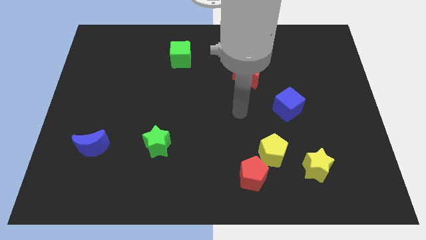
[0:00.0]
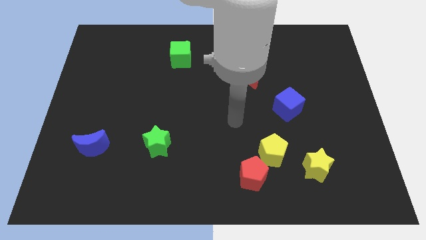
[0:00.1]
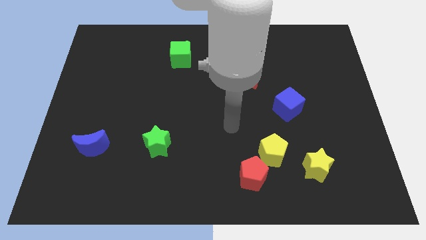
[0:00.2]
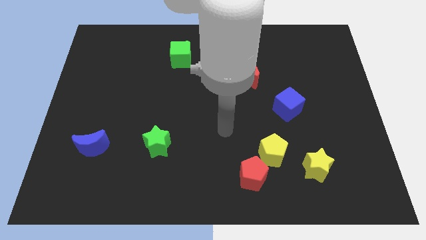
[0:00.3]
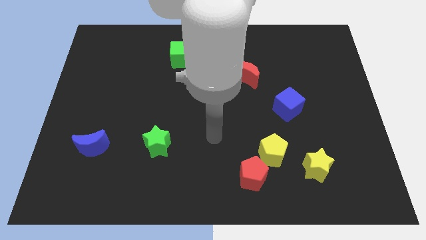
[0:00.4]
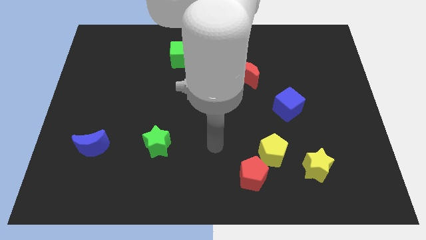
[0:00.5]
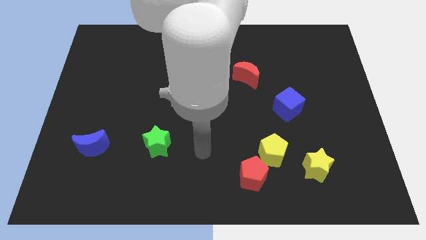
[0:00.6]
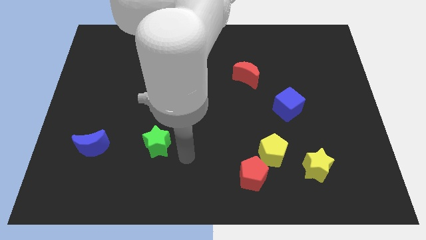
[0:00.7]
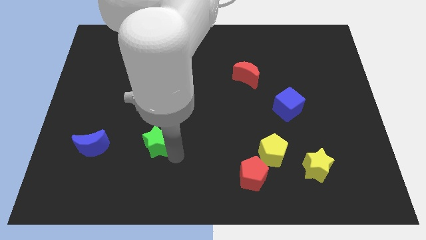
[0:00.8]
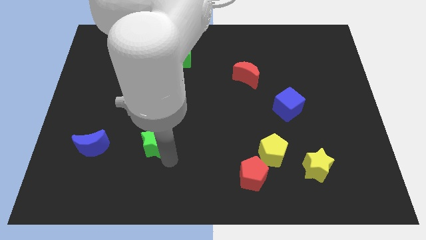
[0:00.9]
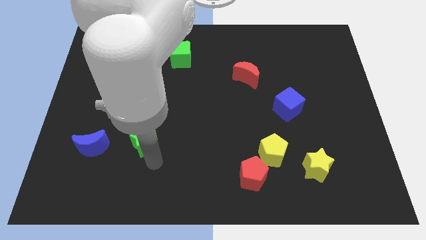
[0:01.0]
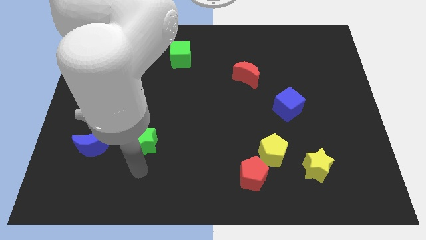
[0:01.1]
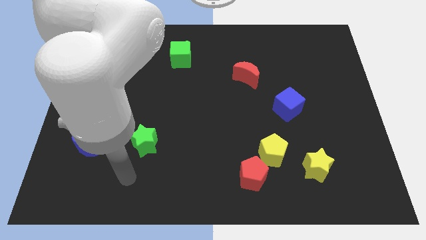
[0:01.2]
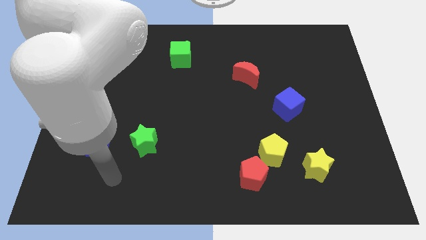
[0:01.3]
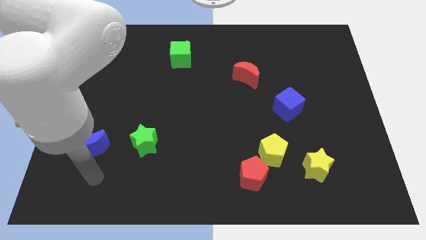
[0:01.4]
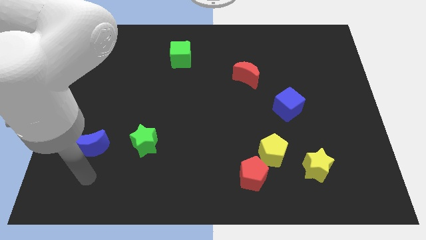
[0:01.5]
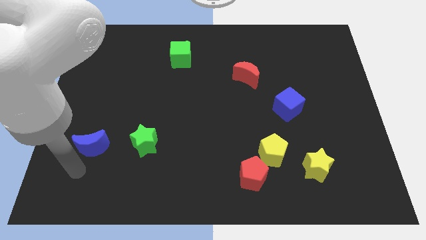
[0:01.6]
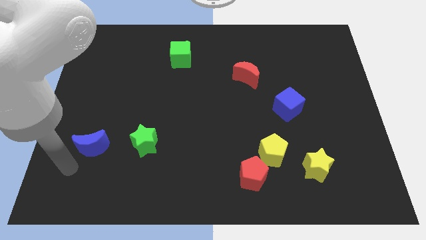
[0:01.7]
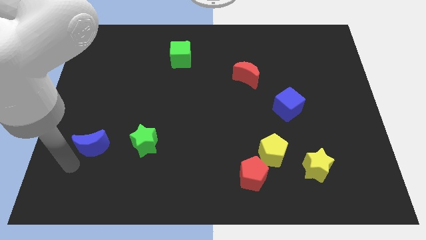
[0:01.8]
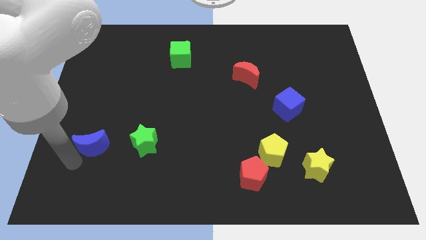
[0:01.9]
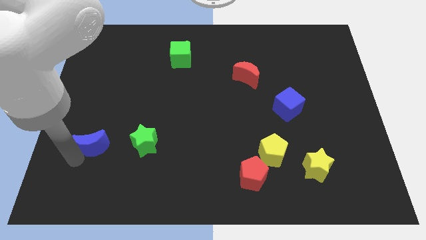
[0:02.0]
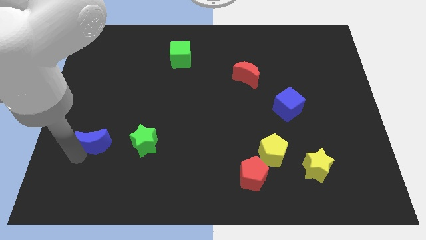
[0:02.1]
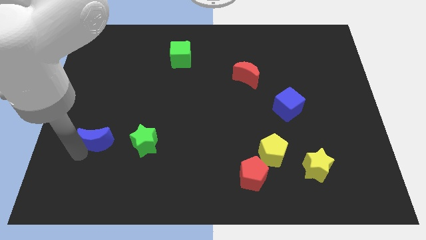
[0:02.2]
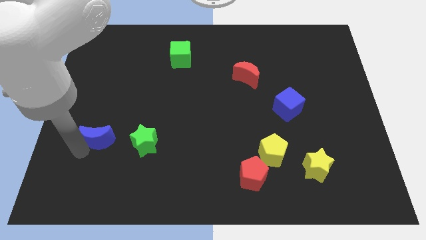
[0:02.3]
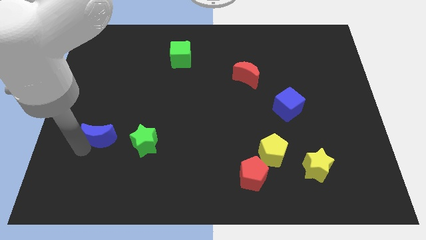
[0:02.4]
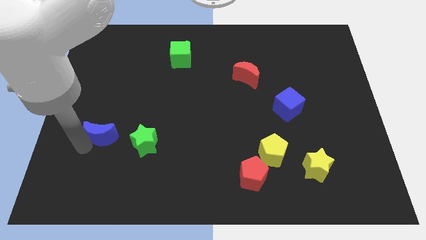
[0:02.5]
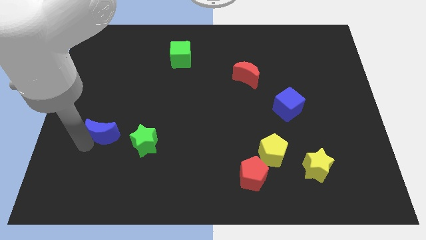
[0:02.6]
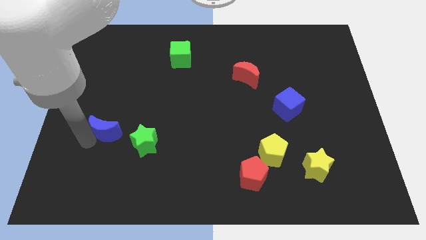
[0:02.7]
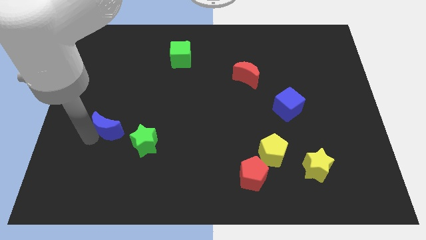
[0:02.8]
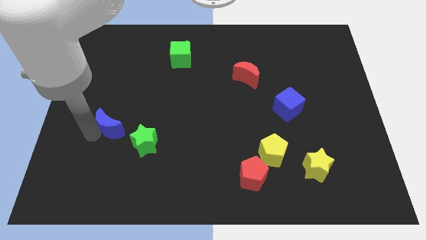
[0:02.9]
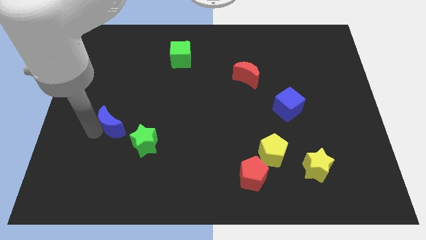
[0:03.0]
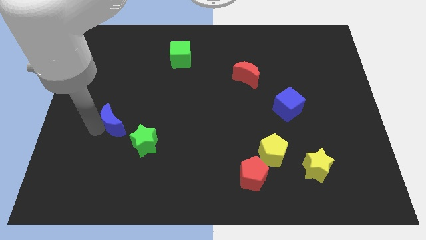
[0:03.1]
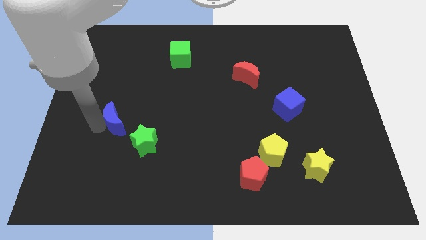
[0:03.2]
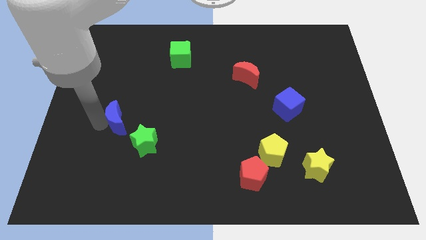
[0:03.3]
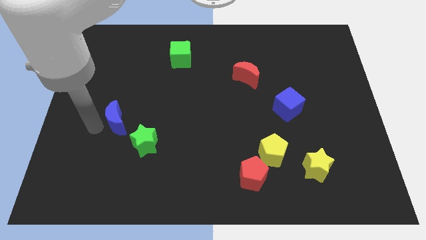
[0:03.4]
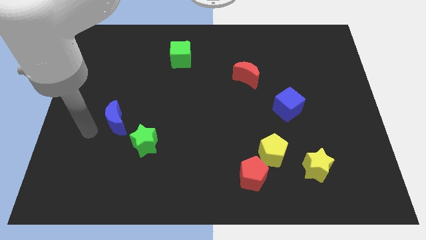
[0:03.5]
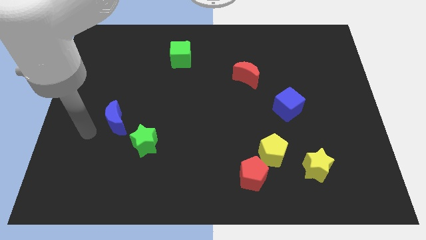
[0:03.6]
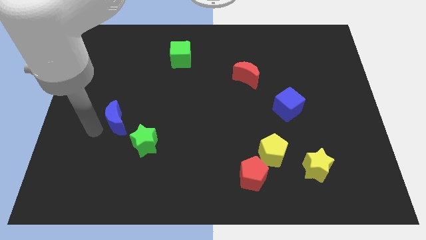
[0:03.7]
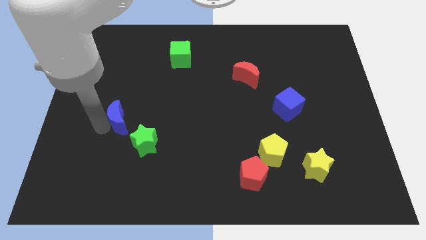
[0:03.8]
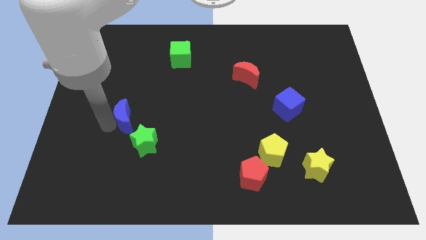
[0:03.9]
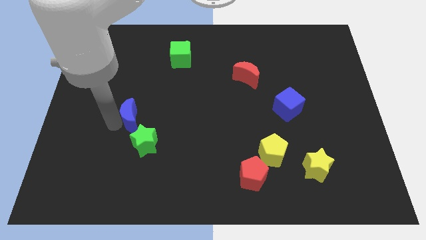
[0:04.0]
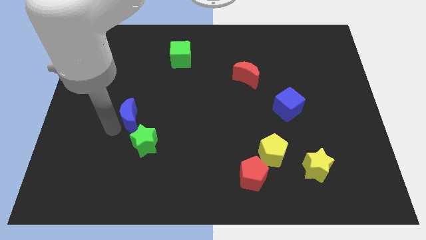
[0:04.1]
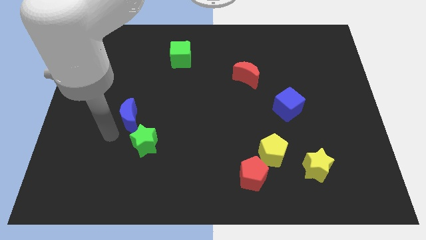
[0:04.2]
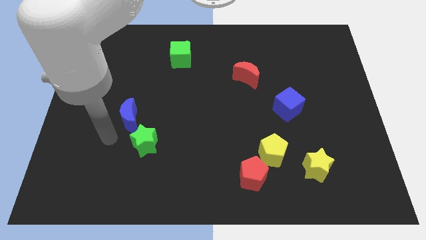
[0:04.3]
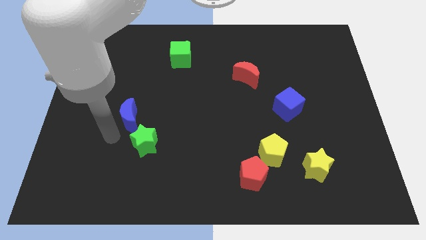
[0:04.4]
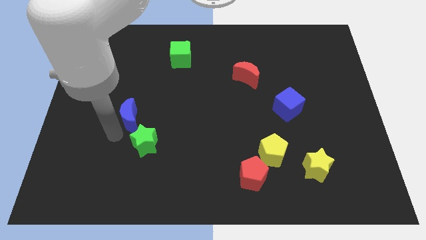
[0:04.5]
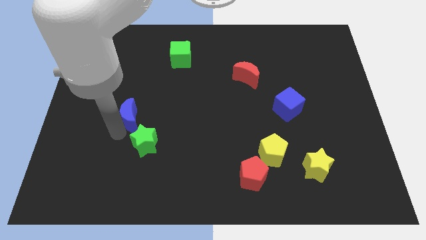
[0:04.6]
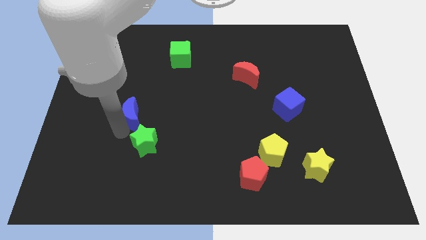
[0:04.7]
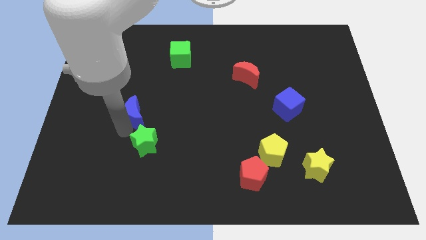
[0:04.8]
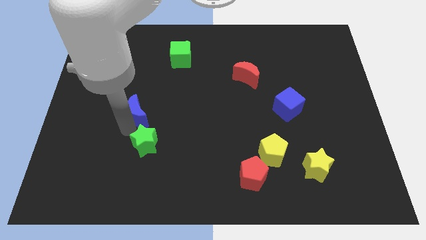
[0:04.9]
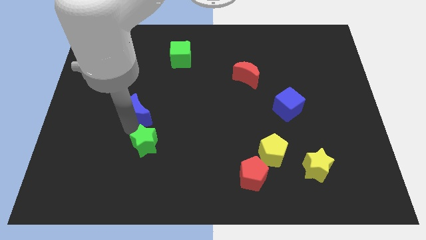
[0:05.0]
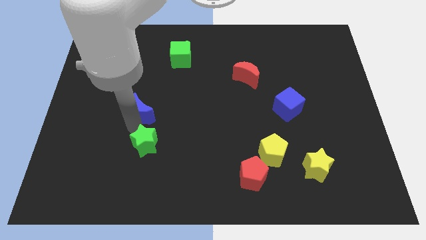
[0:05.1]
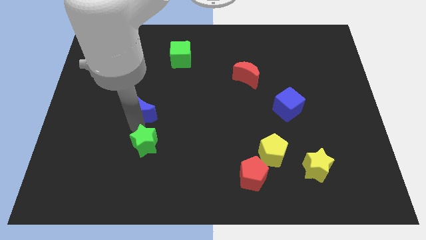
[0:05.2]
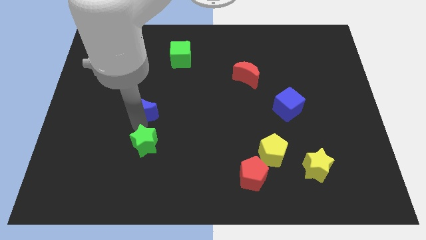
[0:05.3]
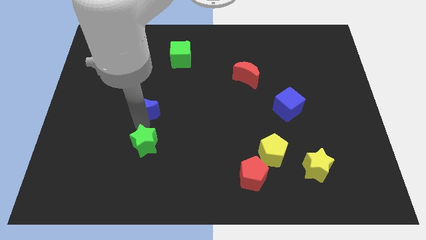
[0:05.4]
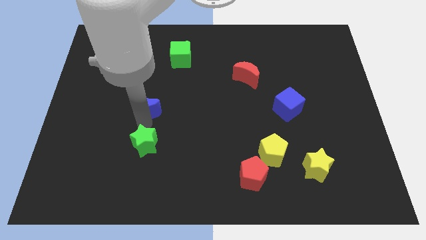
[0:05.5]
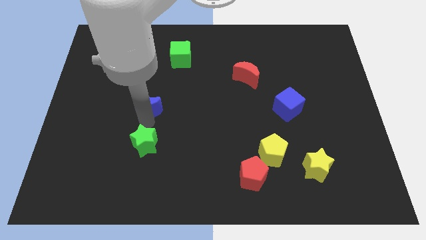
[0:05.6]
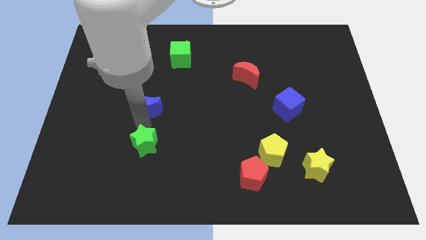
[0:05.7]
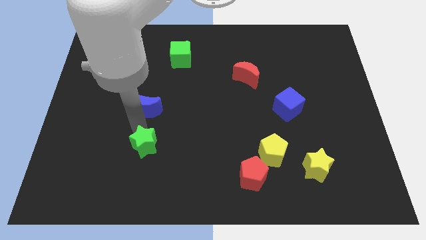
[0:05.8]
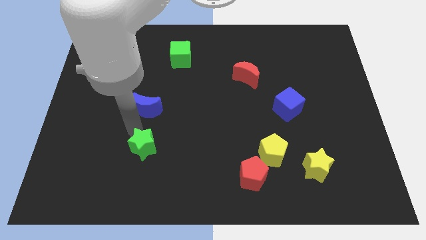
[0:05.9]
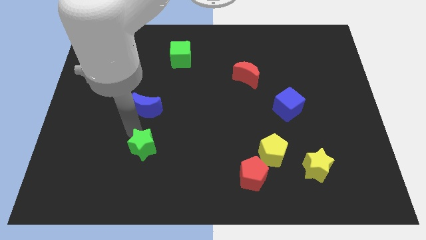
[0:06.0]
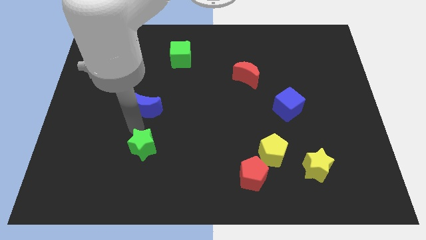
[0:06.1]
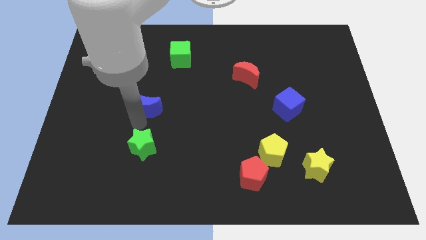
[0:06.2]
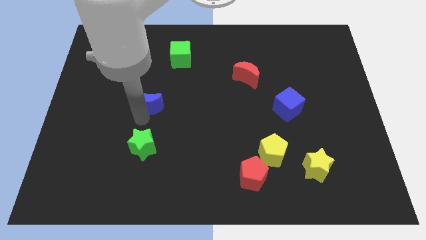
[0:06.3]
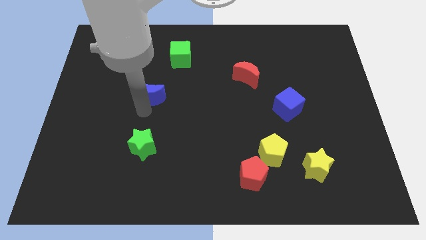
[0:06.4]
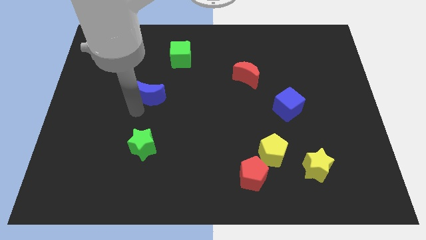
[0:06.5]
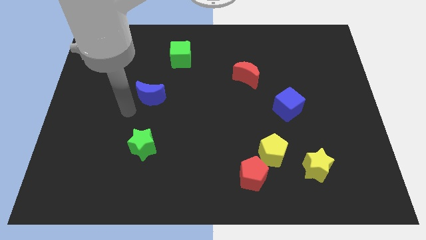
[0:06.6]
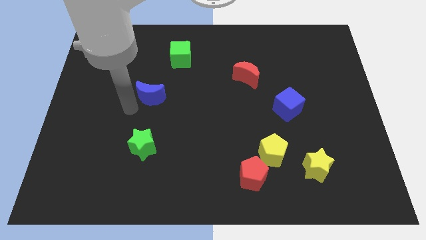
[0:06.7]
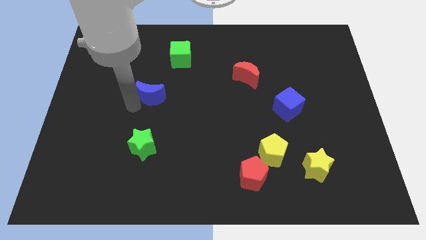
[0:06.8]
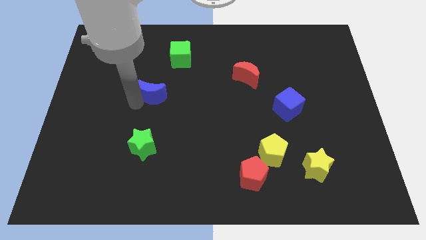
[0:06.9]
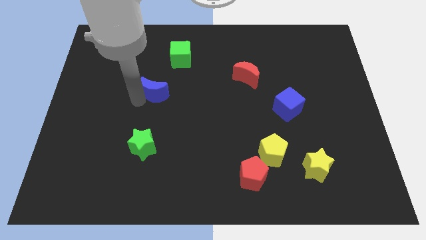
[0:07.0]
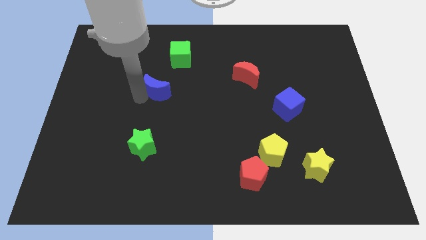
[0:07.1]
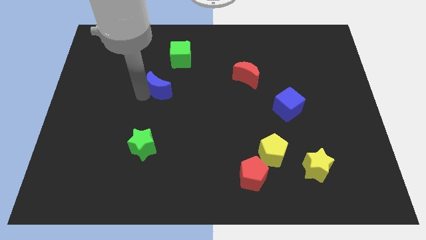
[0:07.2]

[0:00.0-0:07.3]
slide the blue moon upwards and to the right

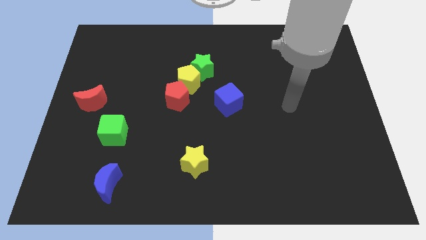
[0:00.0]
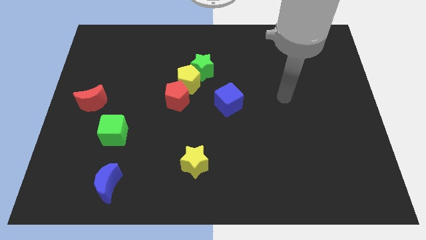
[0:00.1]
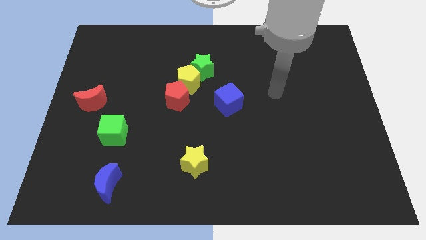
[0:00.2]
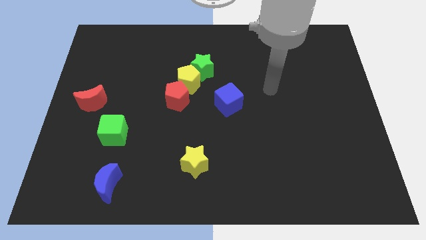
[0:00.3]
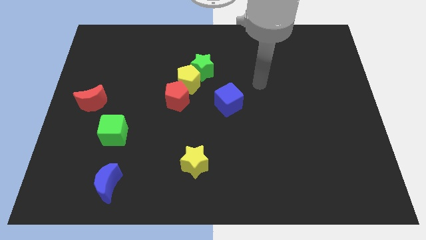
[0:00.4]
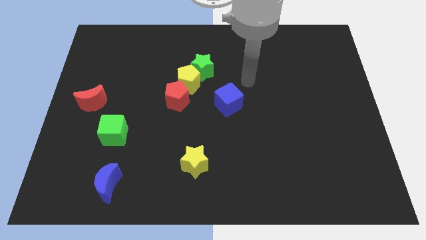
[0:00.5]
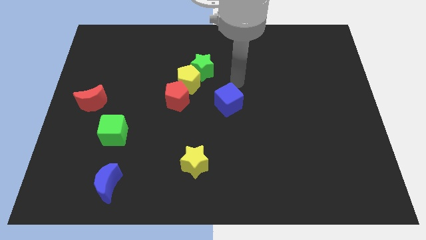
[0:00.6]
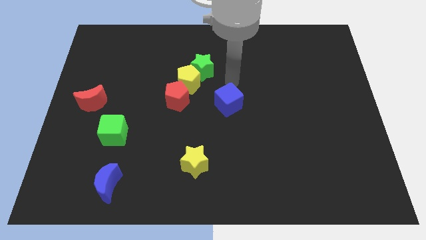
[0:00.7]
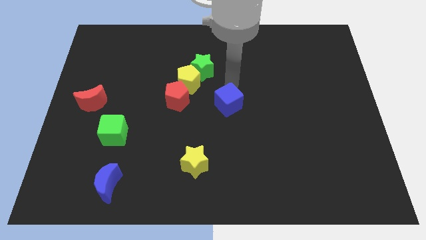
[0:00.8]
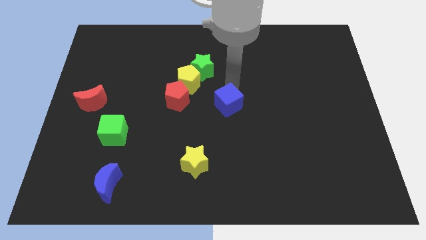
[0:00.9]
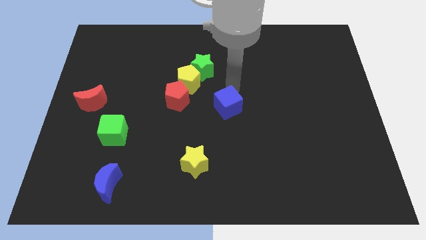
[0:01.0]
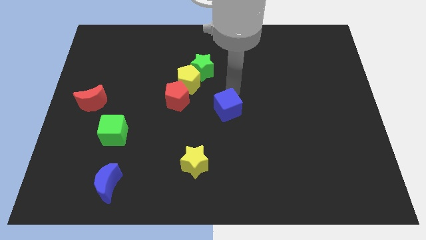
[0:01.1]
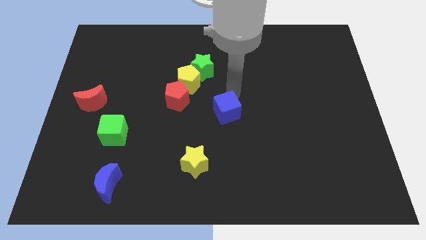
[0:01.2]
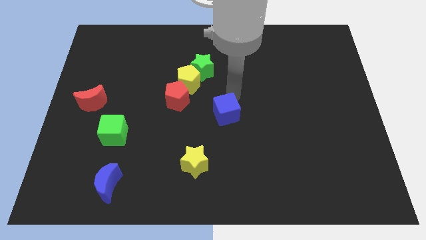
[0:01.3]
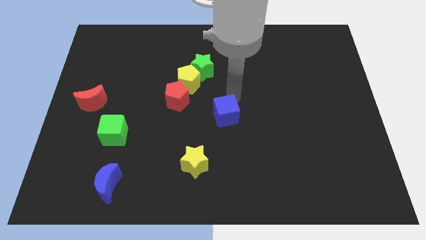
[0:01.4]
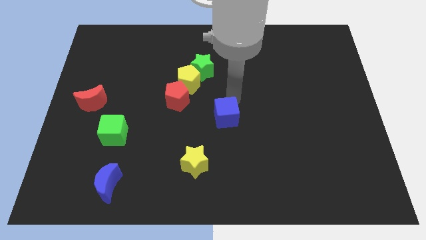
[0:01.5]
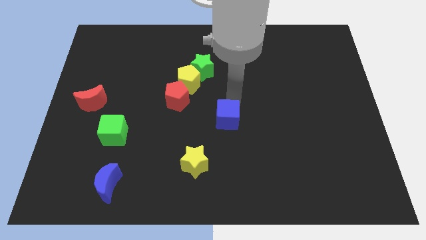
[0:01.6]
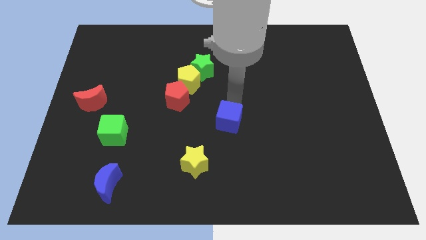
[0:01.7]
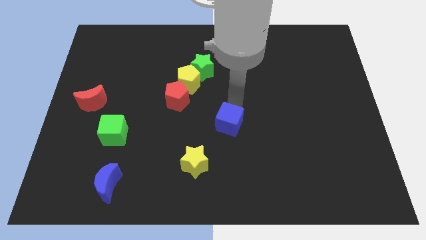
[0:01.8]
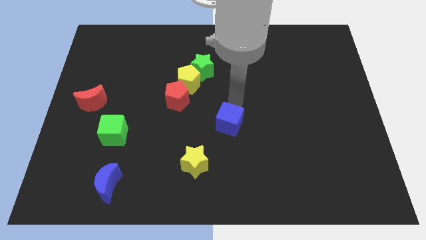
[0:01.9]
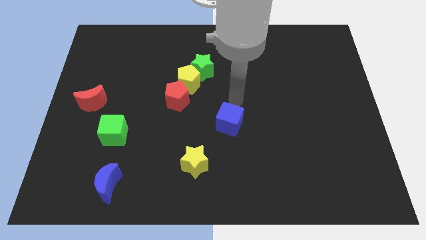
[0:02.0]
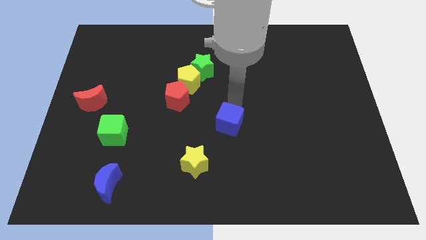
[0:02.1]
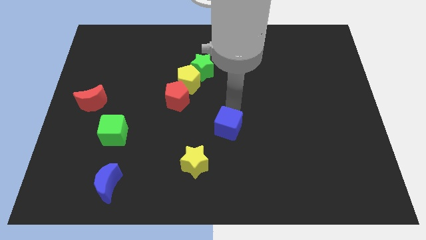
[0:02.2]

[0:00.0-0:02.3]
slightly move the blue cube downwards
